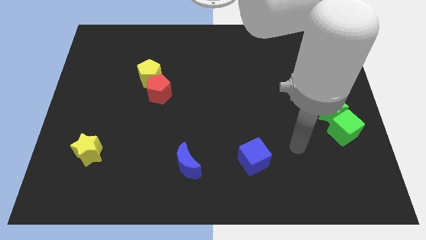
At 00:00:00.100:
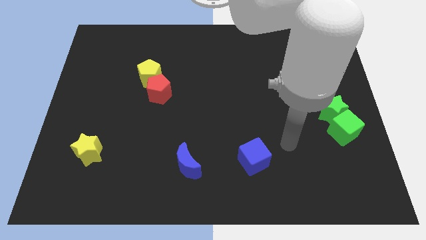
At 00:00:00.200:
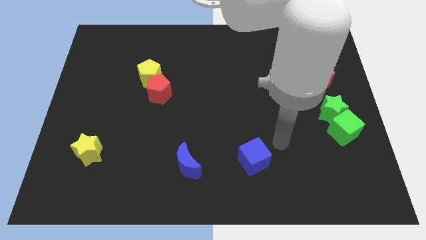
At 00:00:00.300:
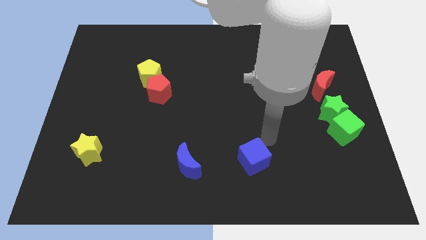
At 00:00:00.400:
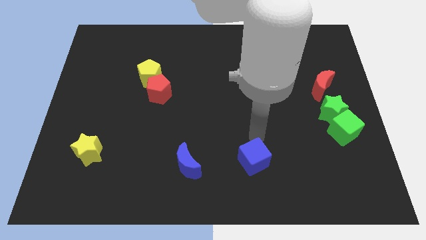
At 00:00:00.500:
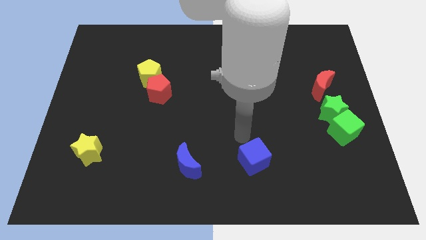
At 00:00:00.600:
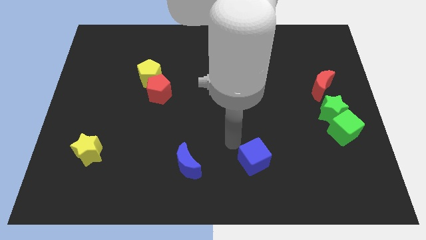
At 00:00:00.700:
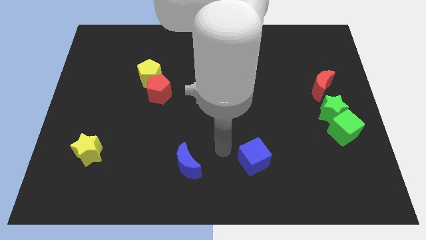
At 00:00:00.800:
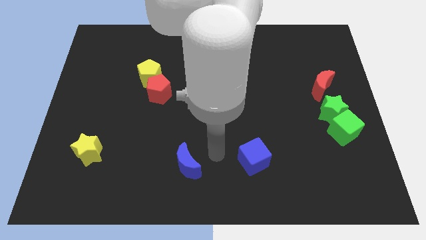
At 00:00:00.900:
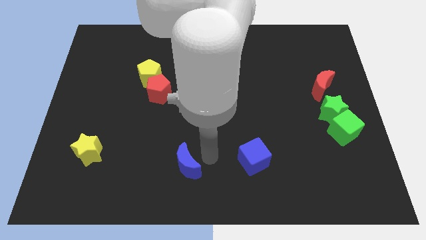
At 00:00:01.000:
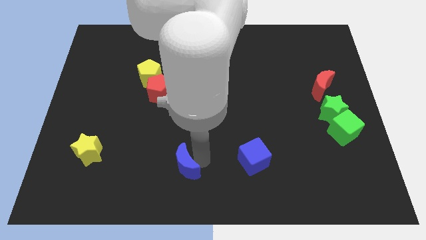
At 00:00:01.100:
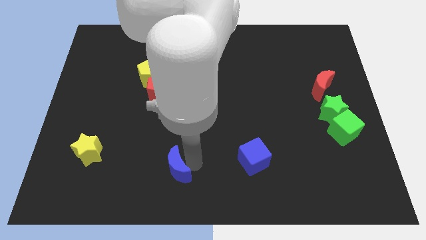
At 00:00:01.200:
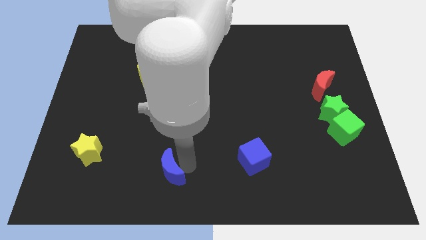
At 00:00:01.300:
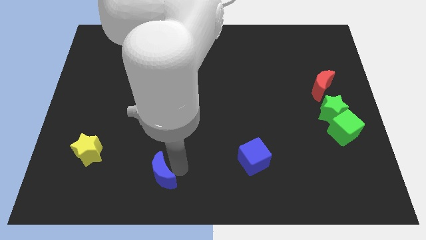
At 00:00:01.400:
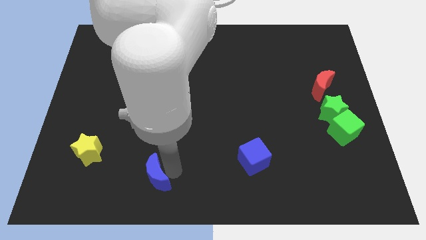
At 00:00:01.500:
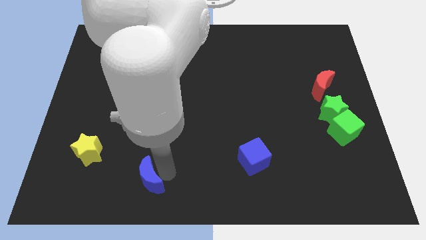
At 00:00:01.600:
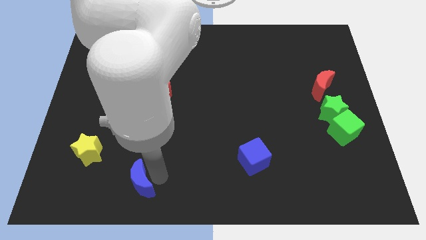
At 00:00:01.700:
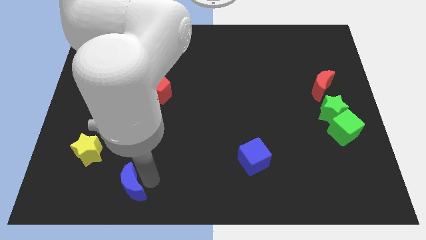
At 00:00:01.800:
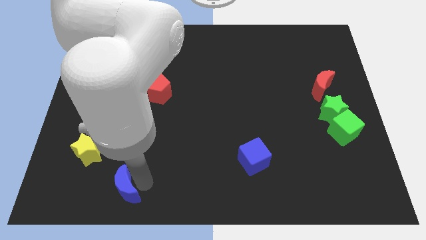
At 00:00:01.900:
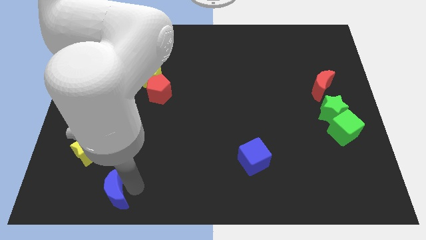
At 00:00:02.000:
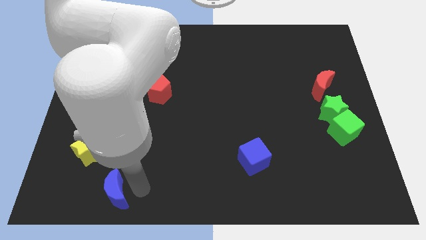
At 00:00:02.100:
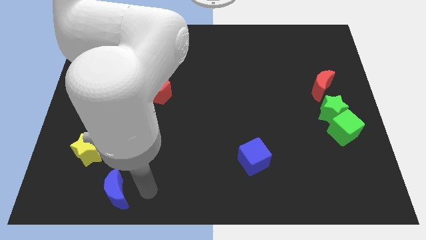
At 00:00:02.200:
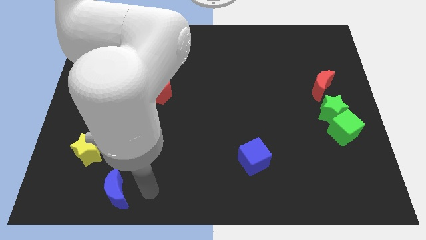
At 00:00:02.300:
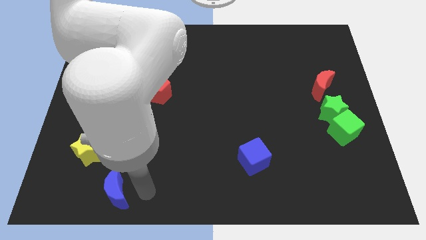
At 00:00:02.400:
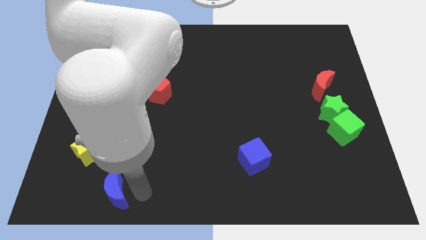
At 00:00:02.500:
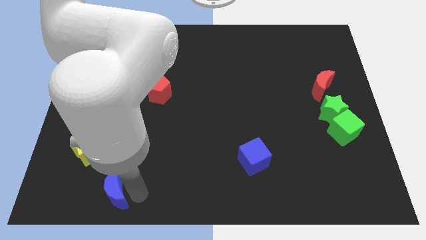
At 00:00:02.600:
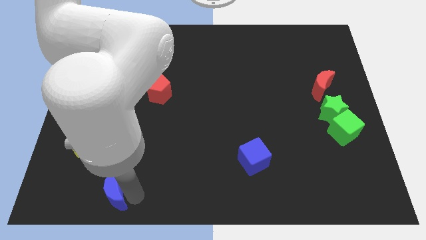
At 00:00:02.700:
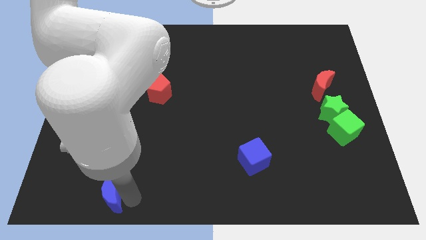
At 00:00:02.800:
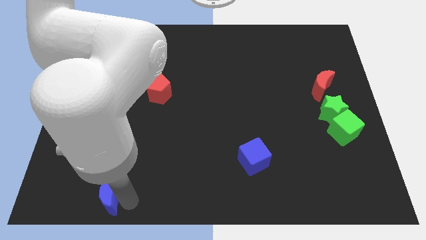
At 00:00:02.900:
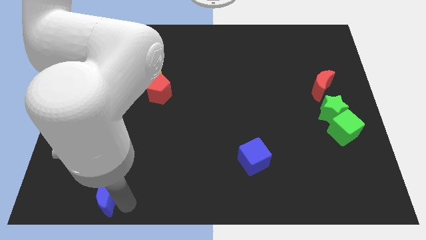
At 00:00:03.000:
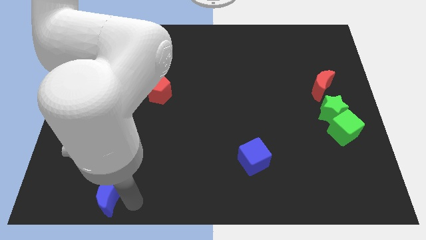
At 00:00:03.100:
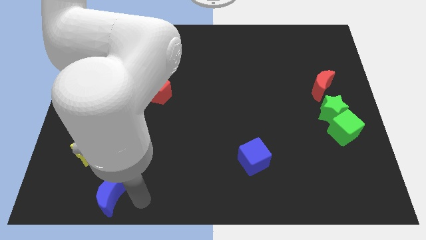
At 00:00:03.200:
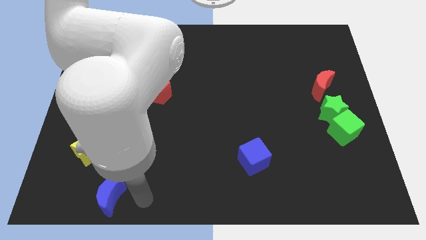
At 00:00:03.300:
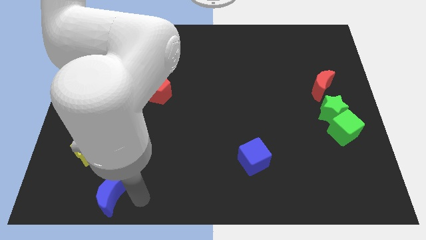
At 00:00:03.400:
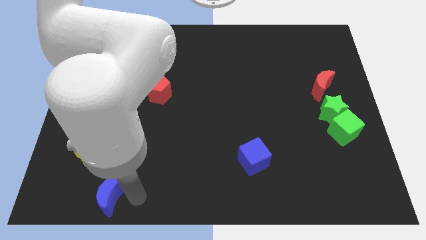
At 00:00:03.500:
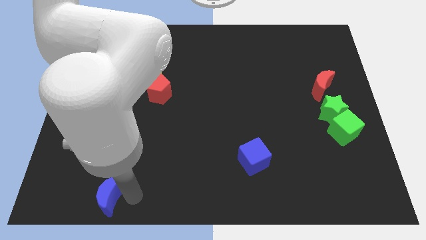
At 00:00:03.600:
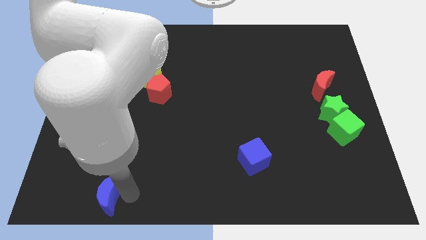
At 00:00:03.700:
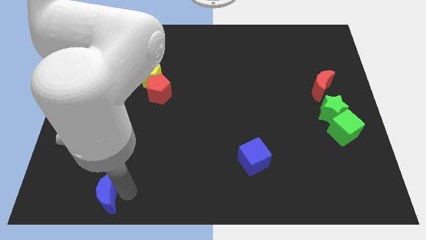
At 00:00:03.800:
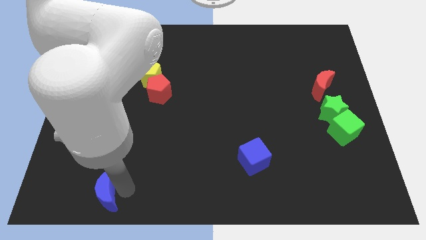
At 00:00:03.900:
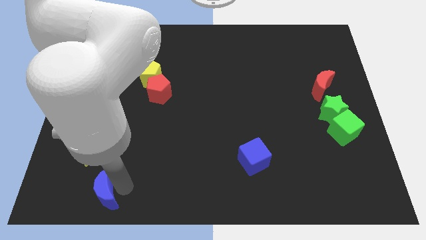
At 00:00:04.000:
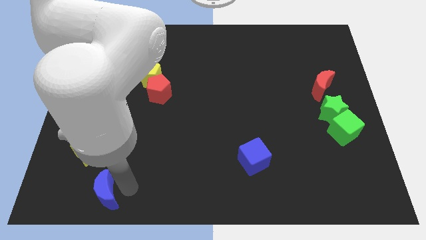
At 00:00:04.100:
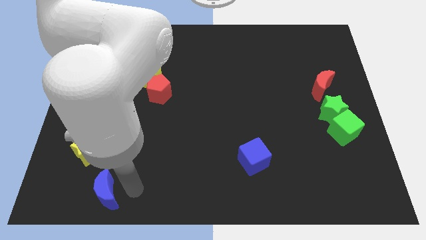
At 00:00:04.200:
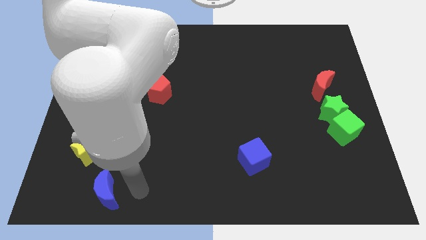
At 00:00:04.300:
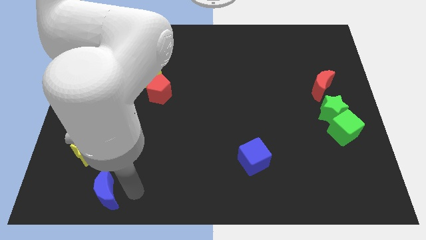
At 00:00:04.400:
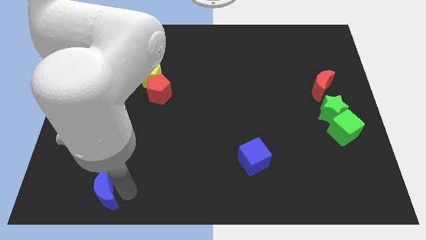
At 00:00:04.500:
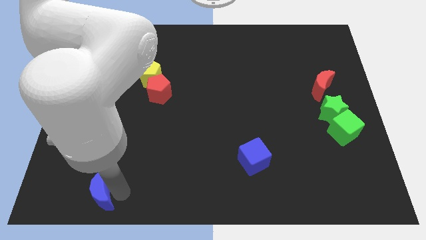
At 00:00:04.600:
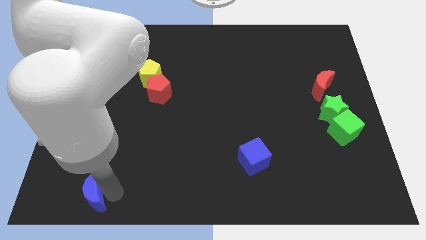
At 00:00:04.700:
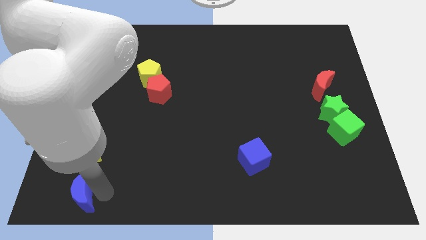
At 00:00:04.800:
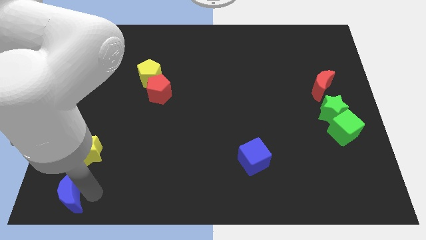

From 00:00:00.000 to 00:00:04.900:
put the blue moon to the bottom left of the board

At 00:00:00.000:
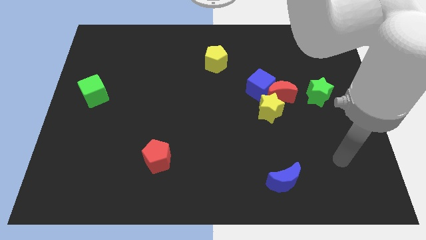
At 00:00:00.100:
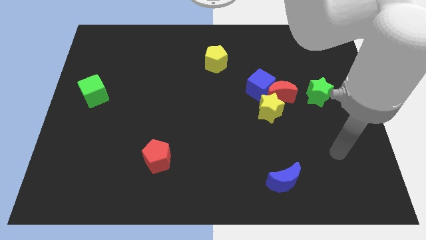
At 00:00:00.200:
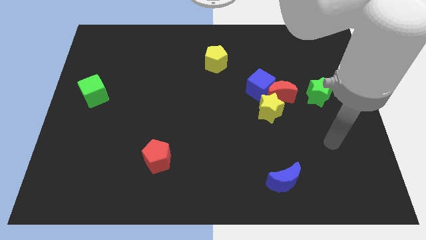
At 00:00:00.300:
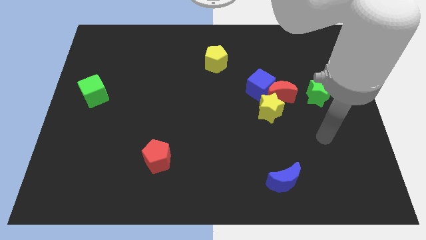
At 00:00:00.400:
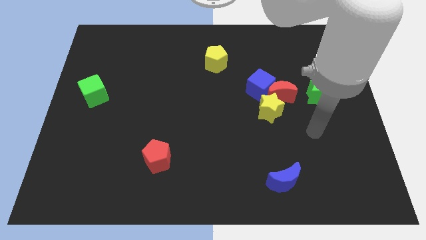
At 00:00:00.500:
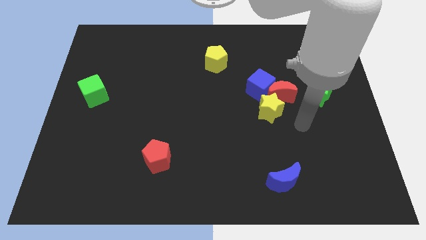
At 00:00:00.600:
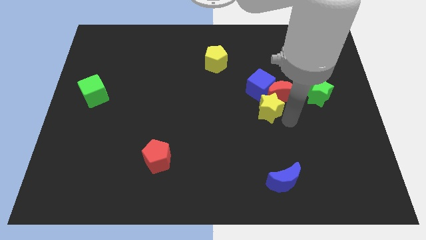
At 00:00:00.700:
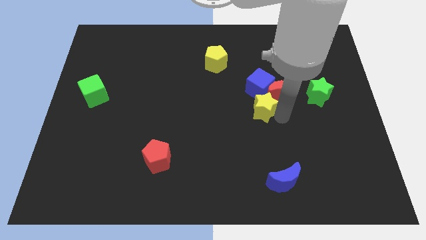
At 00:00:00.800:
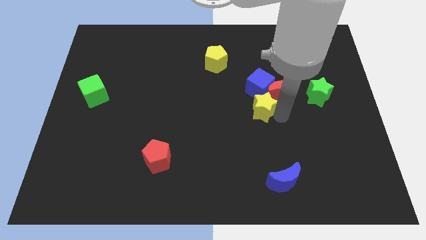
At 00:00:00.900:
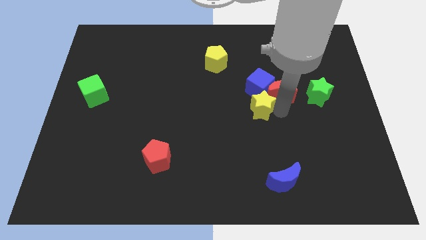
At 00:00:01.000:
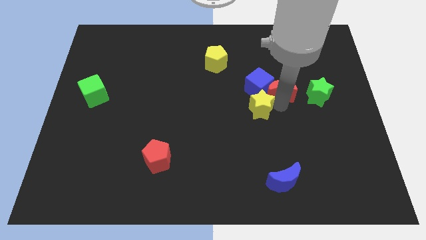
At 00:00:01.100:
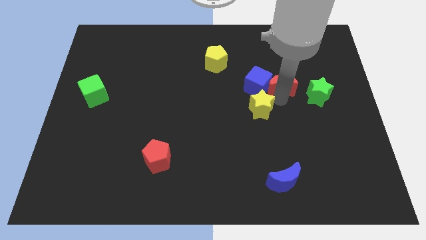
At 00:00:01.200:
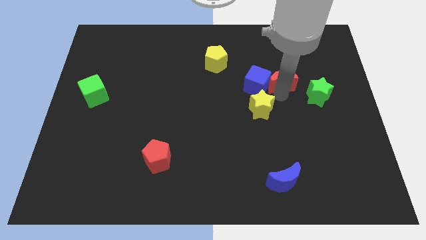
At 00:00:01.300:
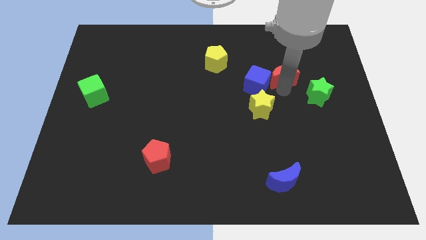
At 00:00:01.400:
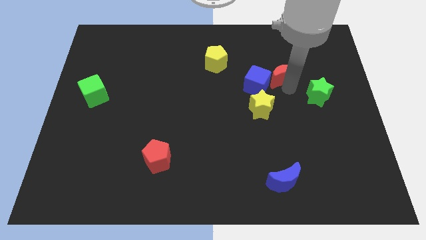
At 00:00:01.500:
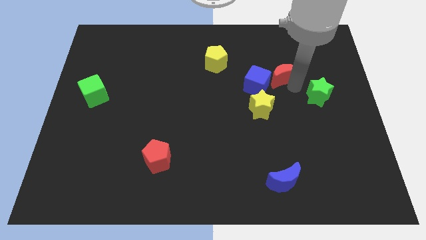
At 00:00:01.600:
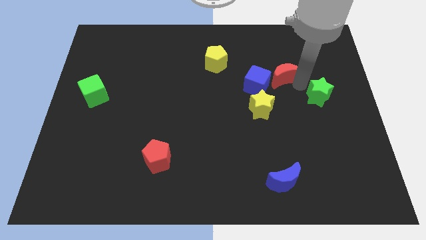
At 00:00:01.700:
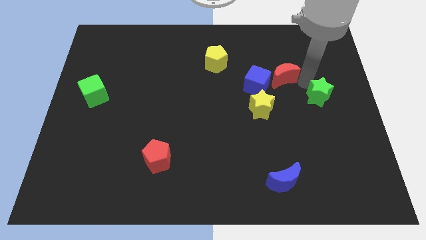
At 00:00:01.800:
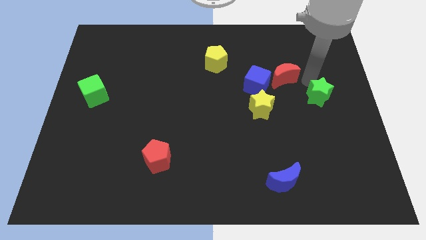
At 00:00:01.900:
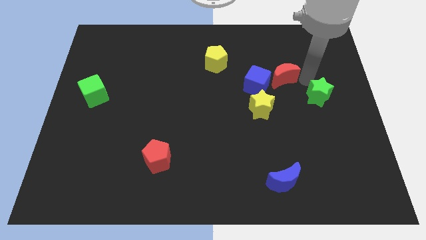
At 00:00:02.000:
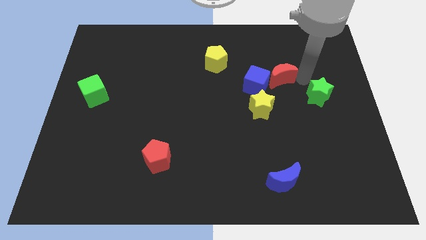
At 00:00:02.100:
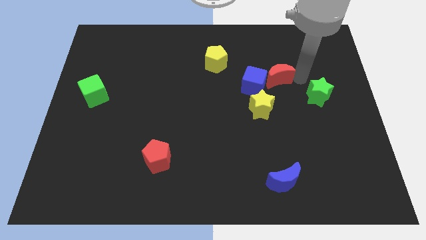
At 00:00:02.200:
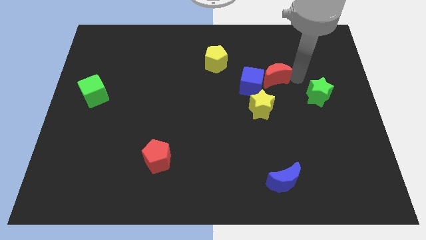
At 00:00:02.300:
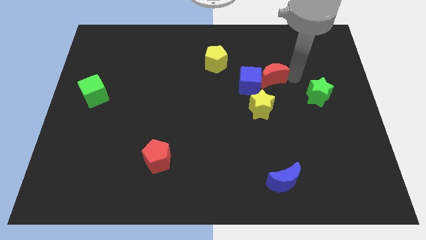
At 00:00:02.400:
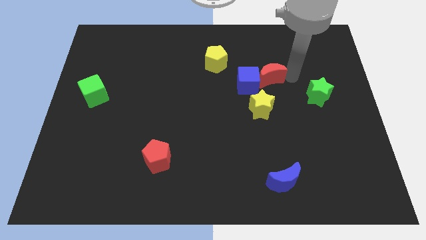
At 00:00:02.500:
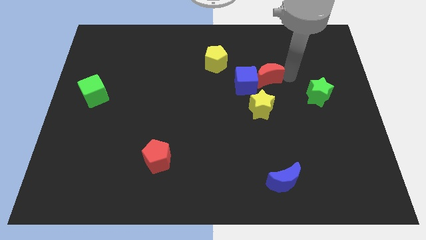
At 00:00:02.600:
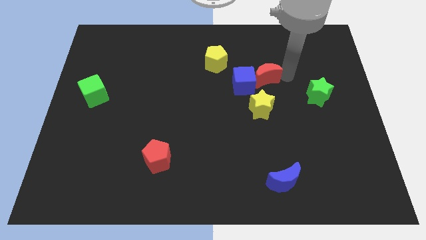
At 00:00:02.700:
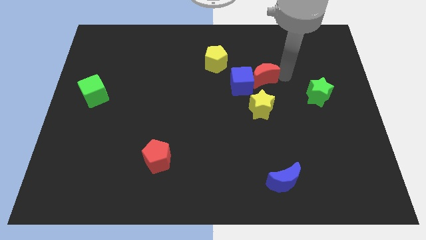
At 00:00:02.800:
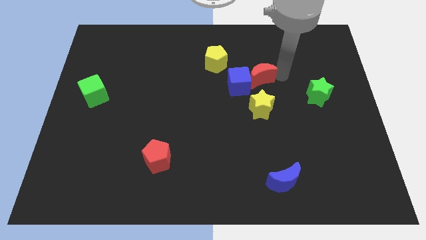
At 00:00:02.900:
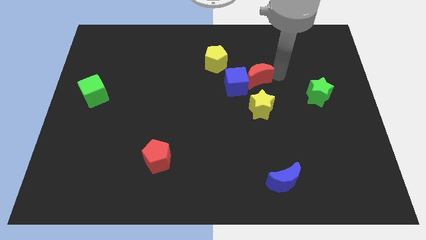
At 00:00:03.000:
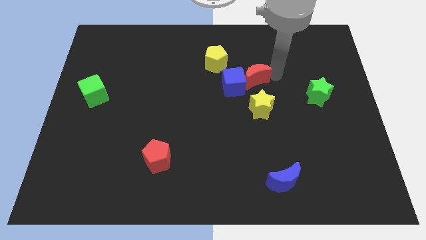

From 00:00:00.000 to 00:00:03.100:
push the red moon to the middle of the board
